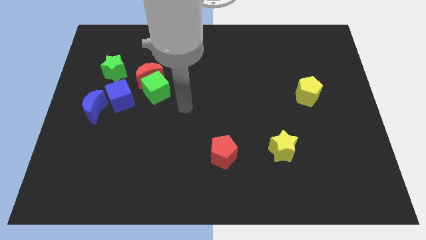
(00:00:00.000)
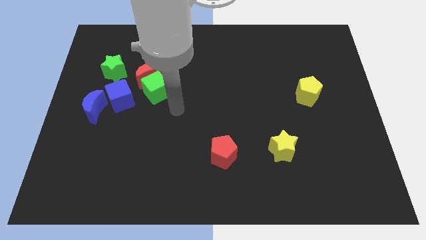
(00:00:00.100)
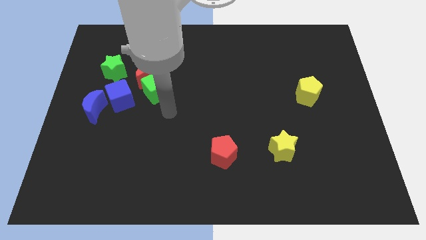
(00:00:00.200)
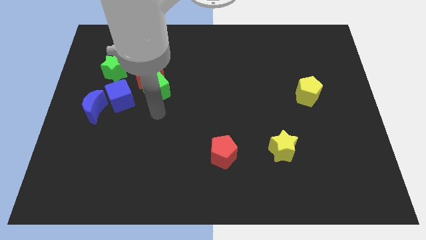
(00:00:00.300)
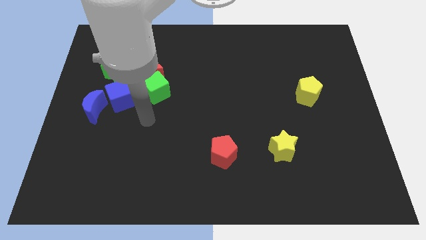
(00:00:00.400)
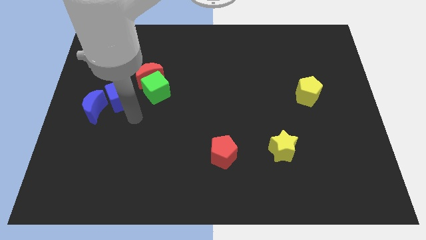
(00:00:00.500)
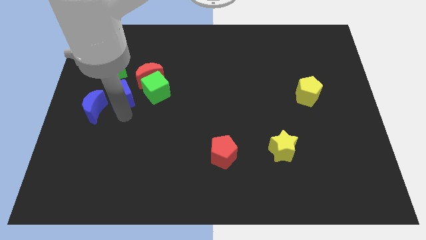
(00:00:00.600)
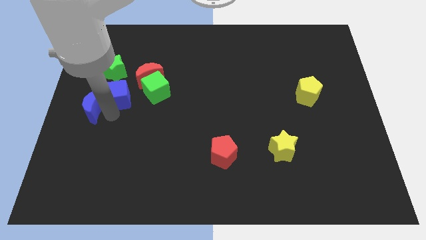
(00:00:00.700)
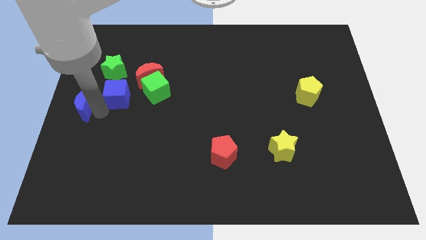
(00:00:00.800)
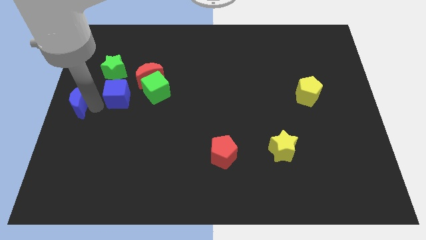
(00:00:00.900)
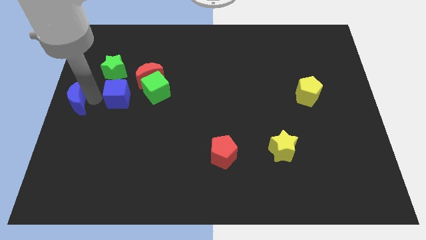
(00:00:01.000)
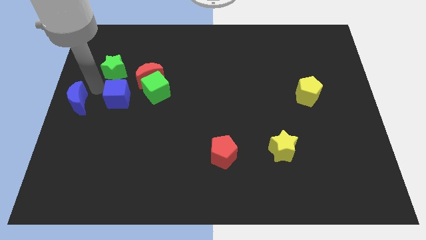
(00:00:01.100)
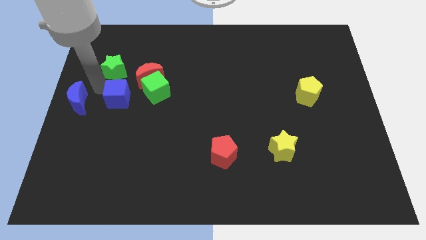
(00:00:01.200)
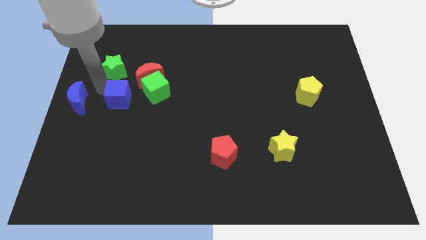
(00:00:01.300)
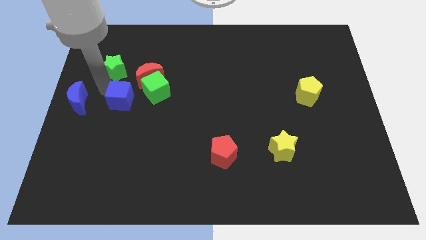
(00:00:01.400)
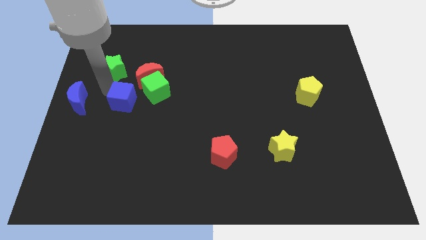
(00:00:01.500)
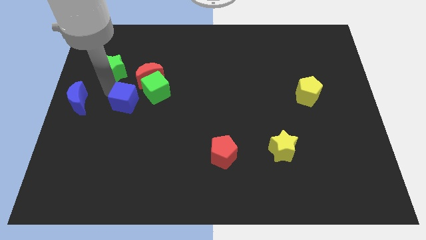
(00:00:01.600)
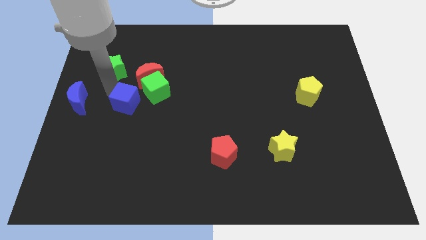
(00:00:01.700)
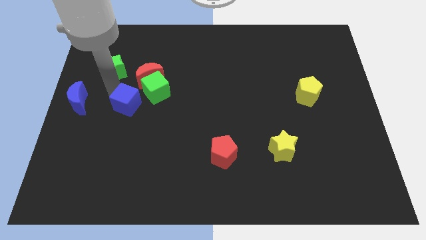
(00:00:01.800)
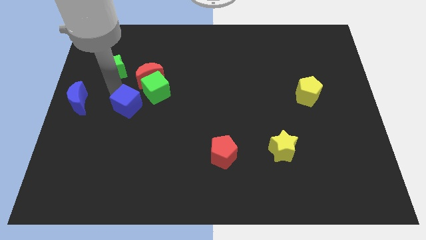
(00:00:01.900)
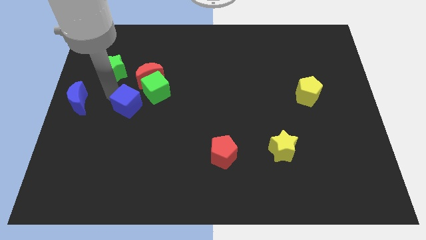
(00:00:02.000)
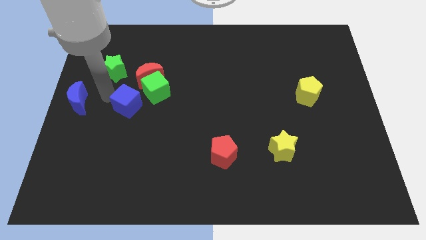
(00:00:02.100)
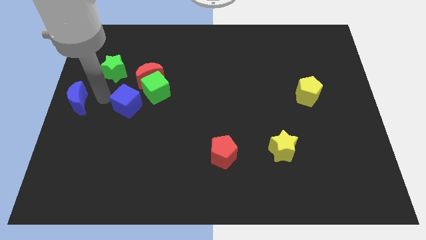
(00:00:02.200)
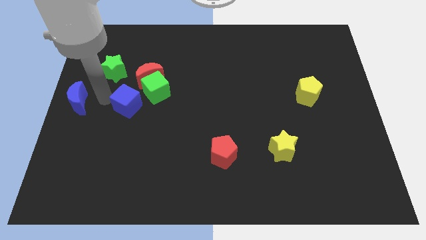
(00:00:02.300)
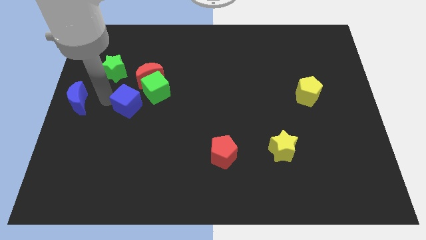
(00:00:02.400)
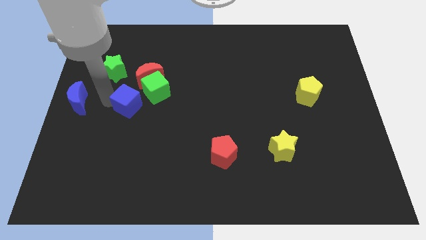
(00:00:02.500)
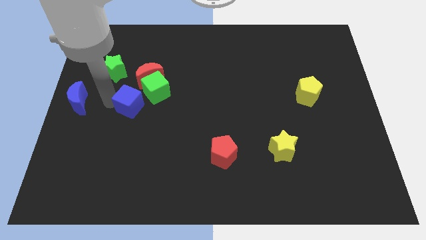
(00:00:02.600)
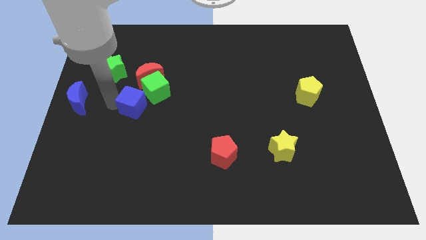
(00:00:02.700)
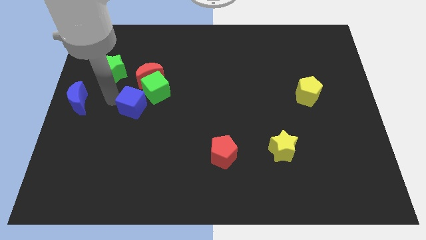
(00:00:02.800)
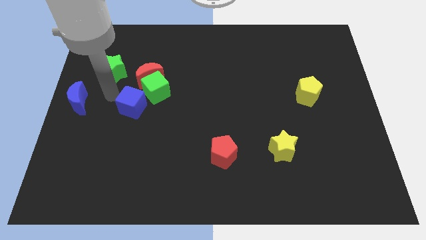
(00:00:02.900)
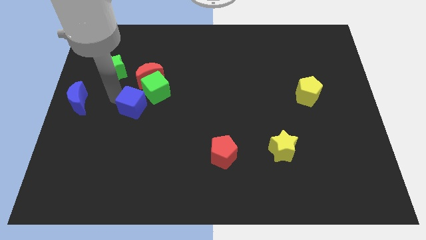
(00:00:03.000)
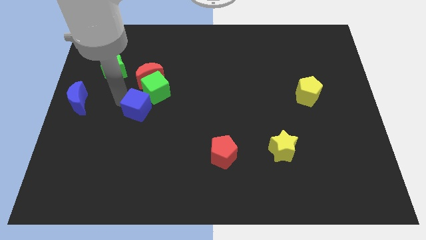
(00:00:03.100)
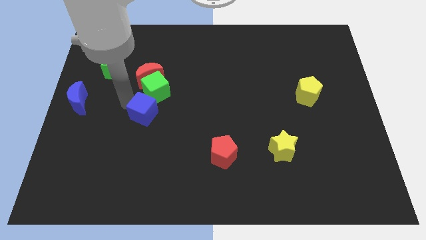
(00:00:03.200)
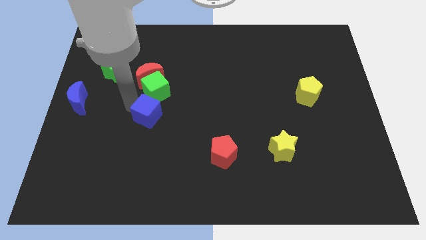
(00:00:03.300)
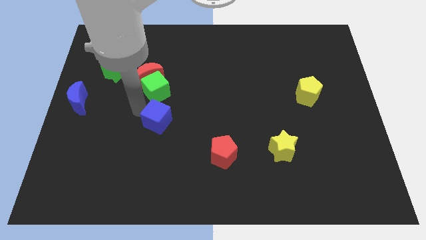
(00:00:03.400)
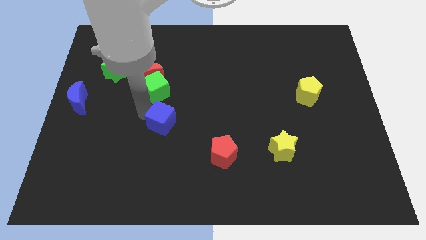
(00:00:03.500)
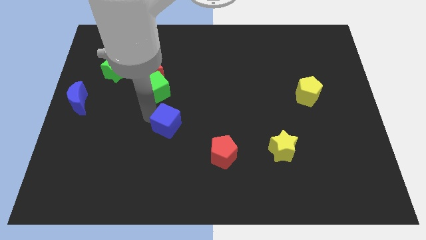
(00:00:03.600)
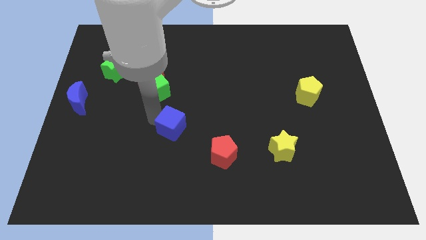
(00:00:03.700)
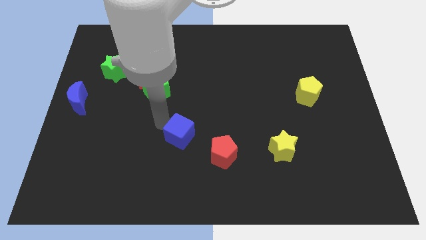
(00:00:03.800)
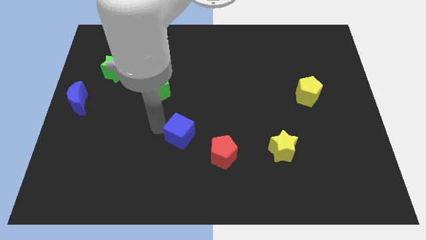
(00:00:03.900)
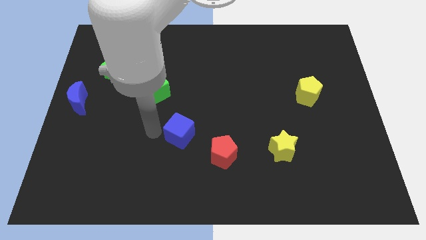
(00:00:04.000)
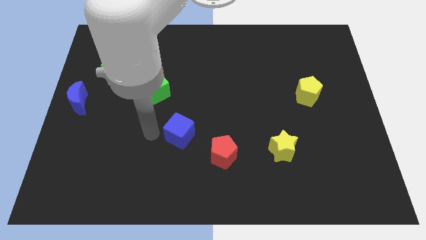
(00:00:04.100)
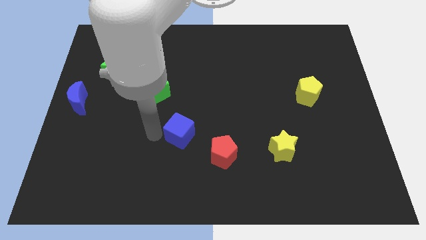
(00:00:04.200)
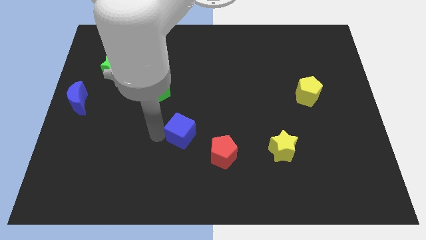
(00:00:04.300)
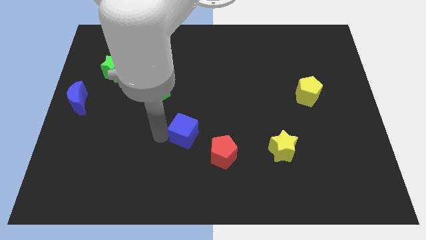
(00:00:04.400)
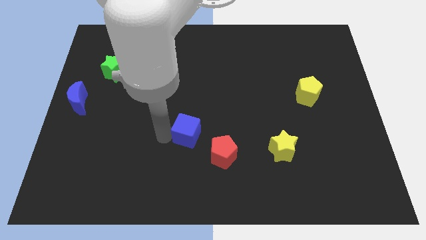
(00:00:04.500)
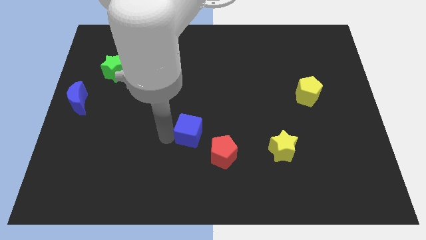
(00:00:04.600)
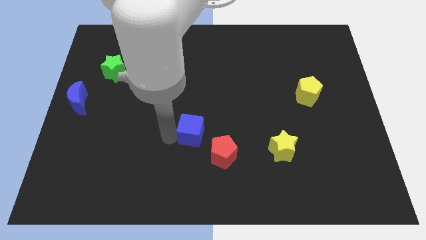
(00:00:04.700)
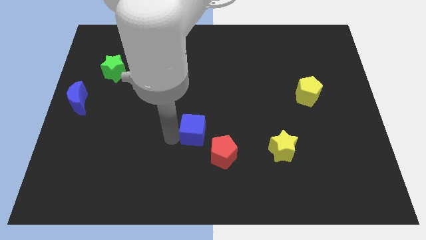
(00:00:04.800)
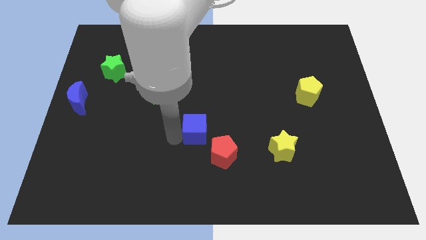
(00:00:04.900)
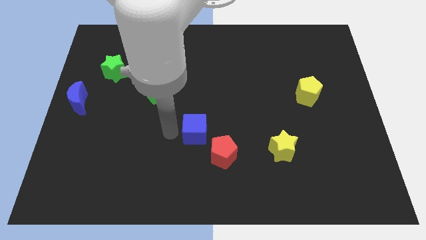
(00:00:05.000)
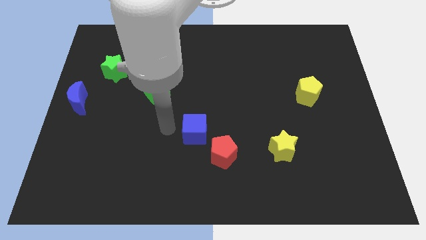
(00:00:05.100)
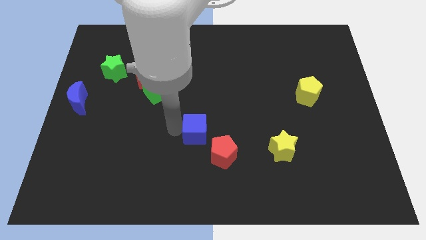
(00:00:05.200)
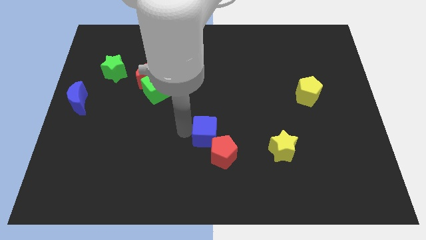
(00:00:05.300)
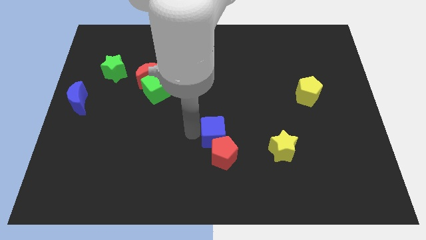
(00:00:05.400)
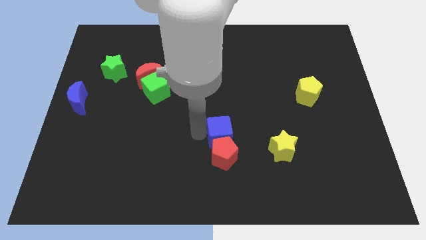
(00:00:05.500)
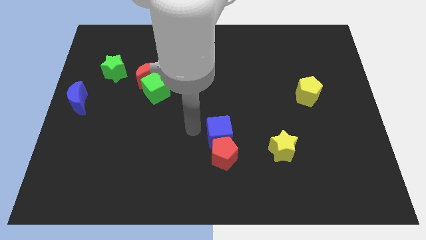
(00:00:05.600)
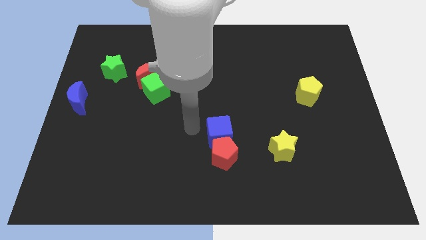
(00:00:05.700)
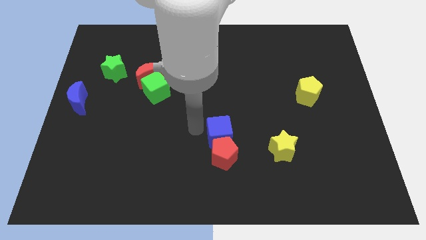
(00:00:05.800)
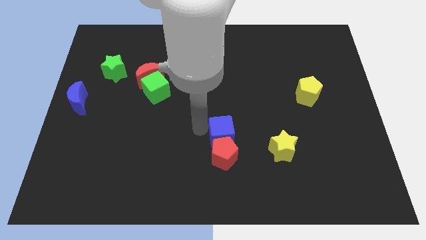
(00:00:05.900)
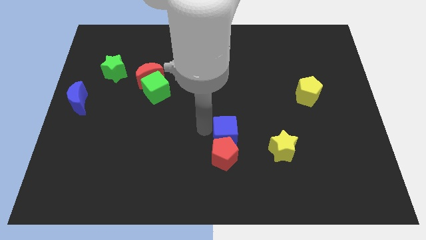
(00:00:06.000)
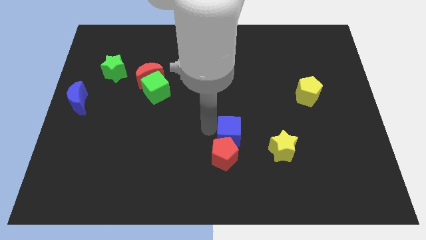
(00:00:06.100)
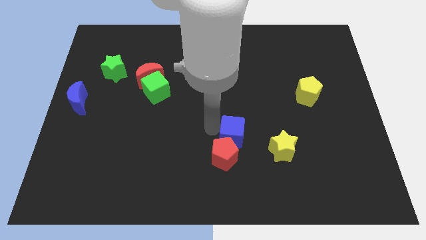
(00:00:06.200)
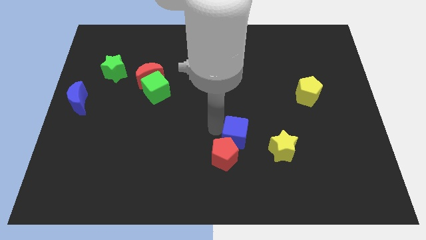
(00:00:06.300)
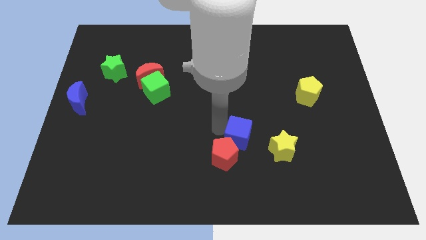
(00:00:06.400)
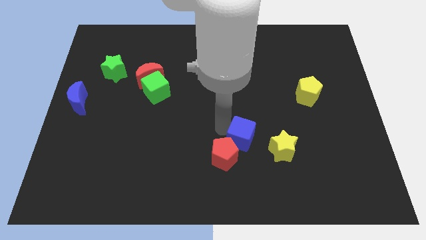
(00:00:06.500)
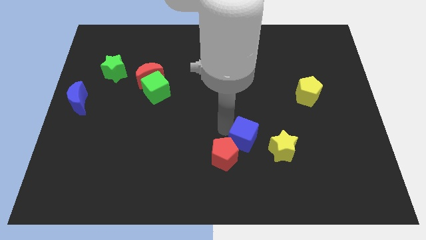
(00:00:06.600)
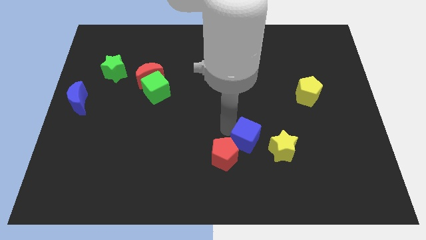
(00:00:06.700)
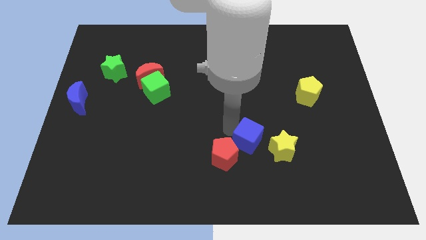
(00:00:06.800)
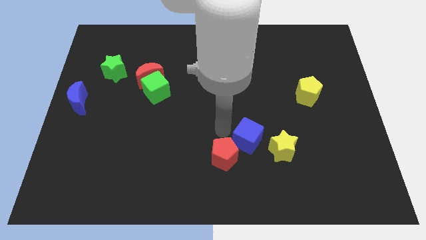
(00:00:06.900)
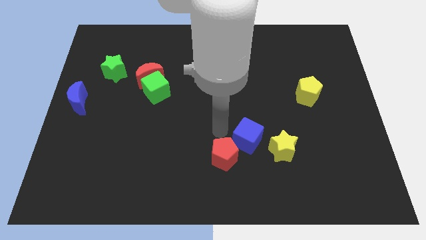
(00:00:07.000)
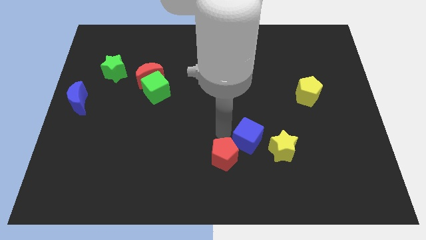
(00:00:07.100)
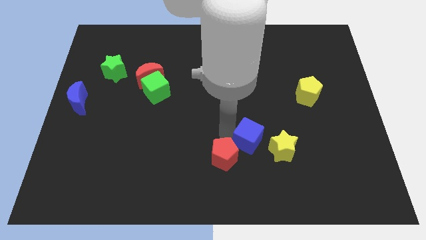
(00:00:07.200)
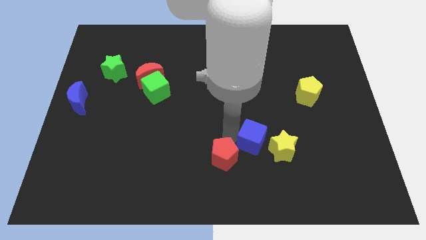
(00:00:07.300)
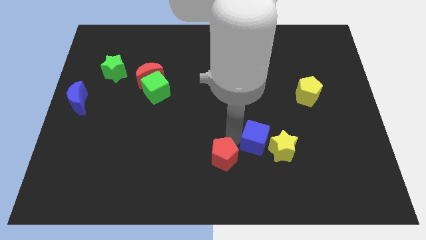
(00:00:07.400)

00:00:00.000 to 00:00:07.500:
push the blue cube to the yellow star

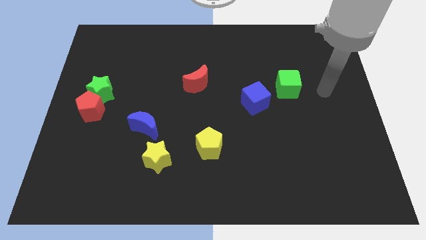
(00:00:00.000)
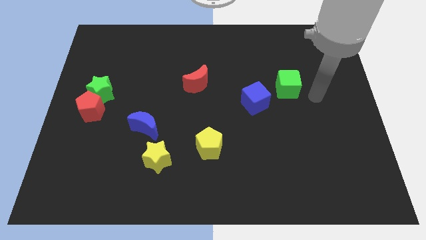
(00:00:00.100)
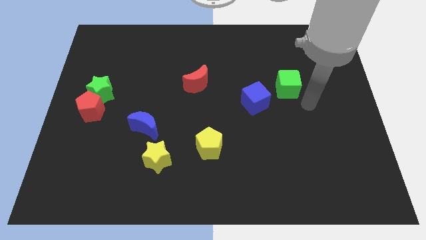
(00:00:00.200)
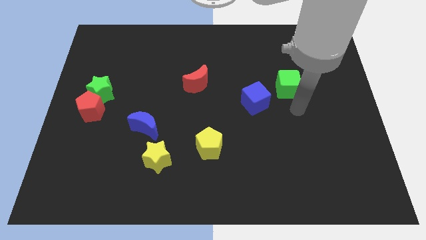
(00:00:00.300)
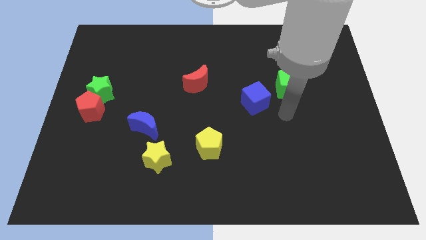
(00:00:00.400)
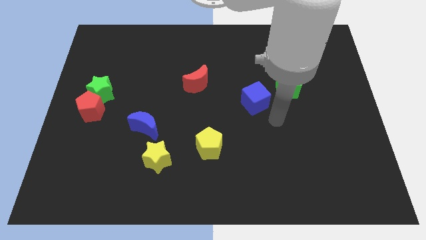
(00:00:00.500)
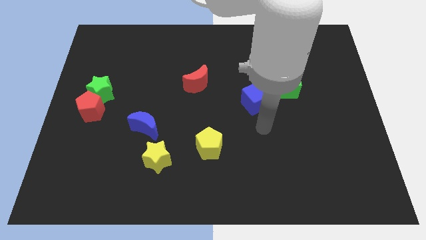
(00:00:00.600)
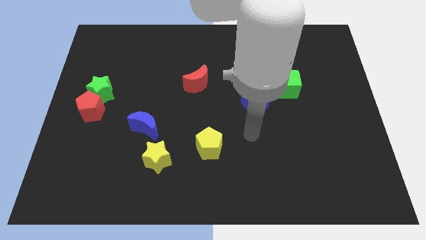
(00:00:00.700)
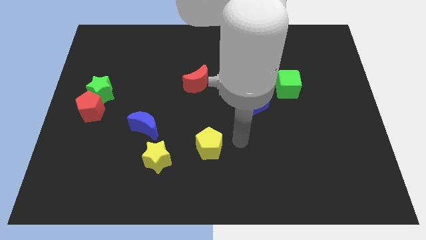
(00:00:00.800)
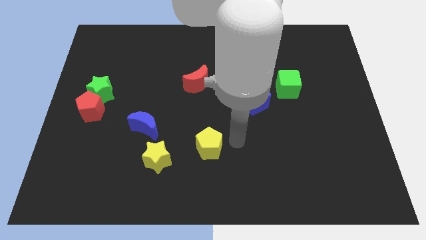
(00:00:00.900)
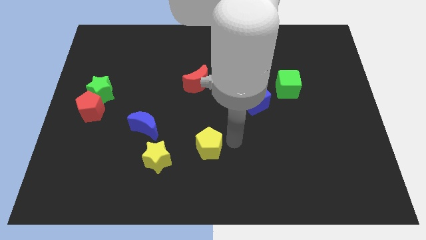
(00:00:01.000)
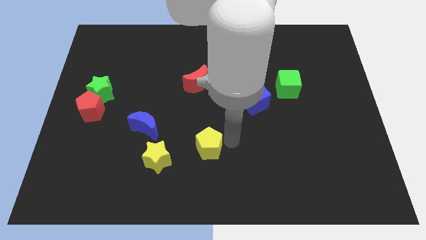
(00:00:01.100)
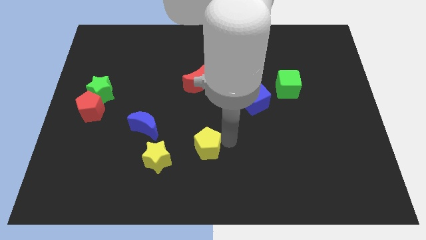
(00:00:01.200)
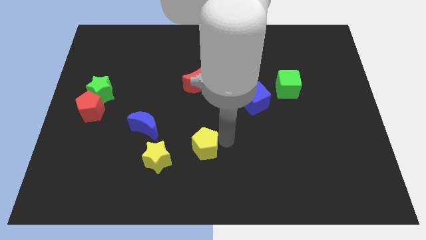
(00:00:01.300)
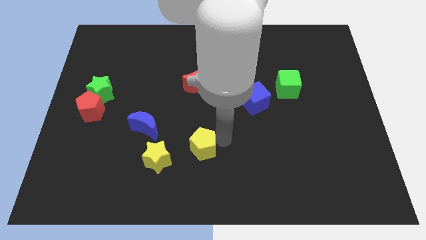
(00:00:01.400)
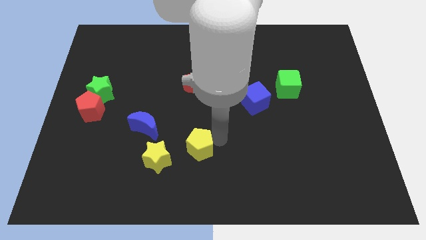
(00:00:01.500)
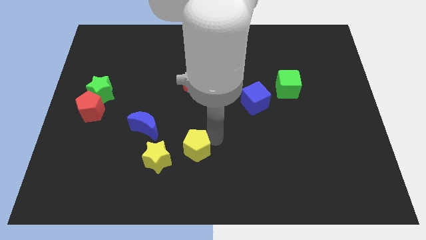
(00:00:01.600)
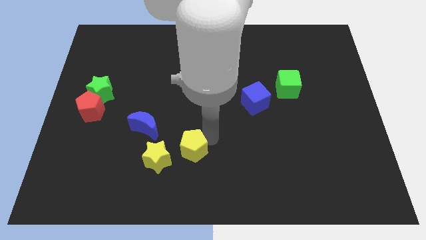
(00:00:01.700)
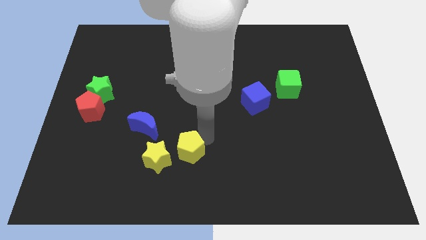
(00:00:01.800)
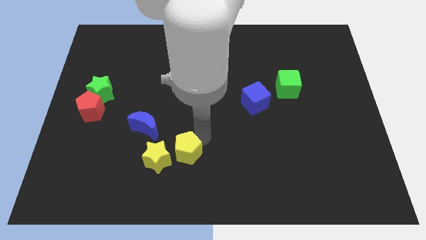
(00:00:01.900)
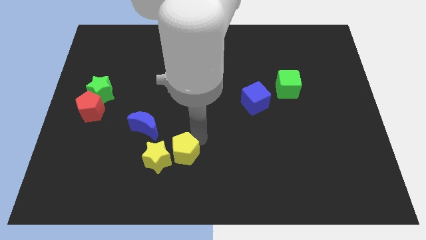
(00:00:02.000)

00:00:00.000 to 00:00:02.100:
put the yellow pentagon next to the yellow star
